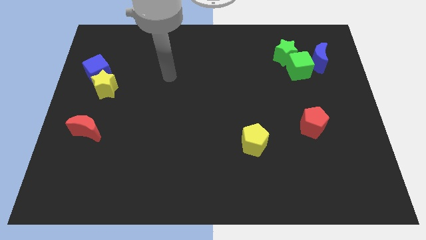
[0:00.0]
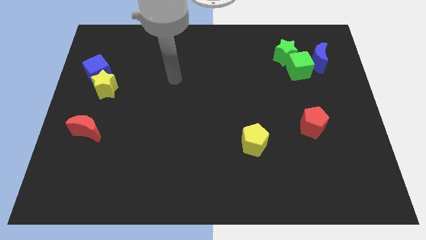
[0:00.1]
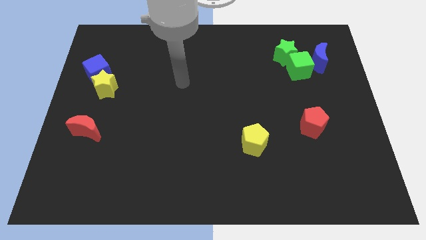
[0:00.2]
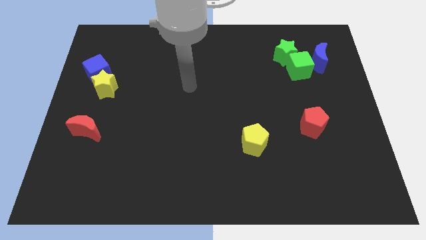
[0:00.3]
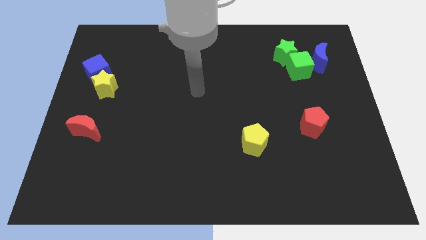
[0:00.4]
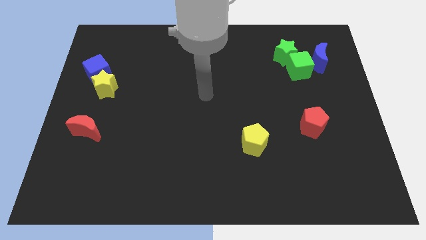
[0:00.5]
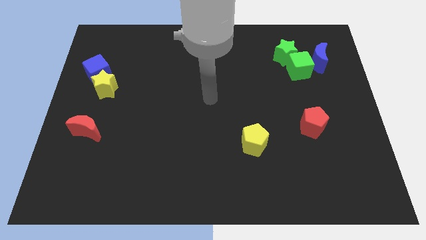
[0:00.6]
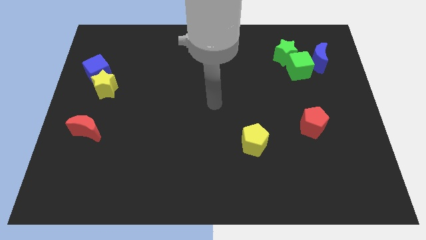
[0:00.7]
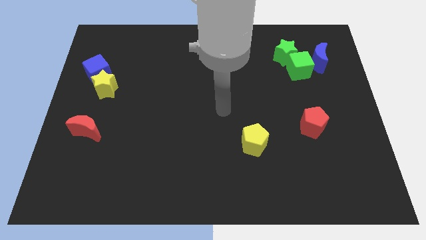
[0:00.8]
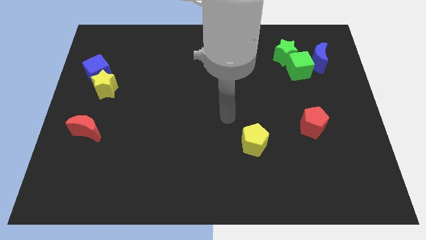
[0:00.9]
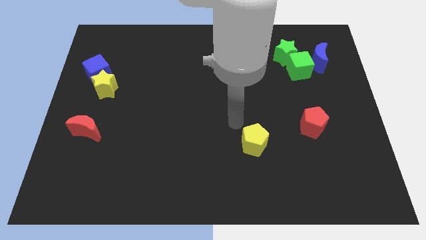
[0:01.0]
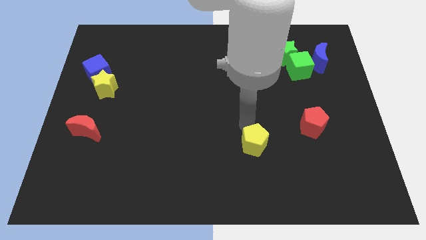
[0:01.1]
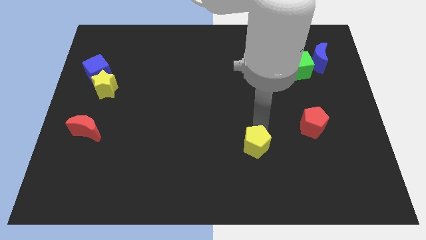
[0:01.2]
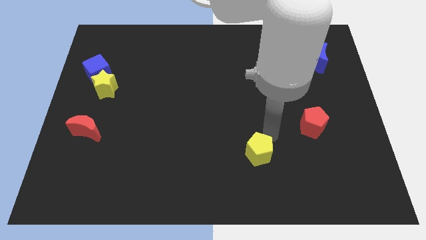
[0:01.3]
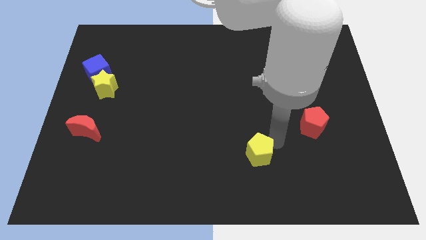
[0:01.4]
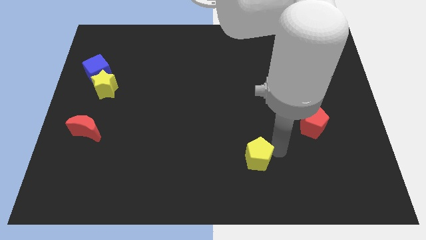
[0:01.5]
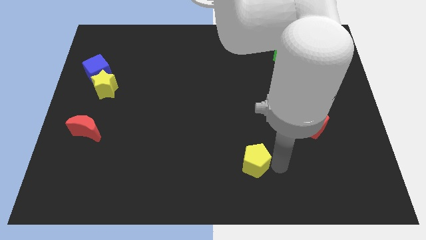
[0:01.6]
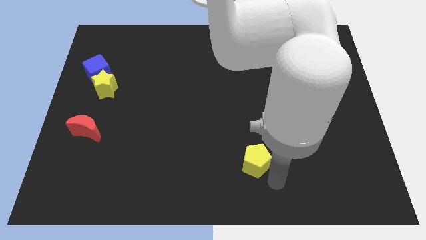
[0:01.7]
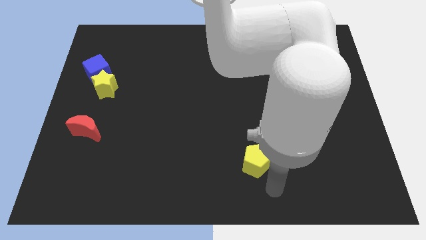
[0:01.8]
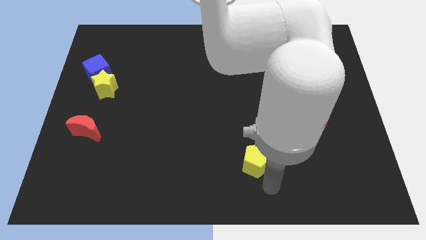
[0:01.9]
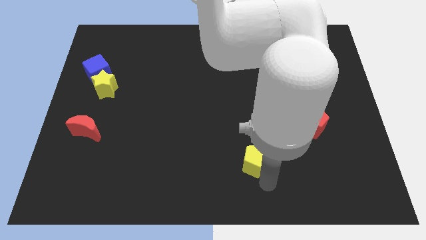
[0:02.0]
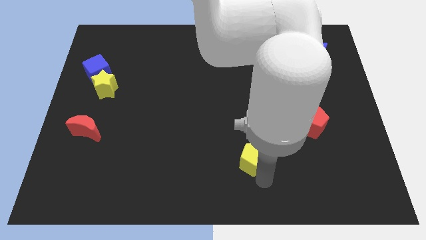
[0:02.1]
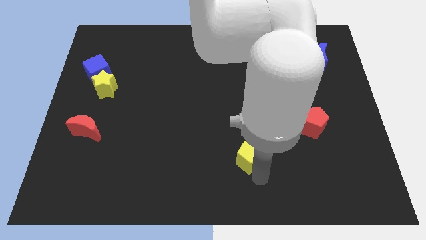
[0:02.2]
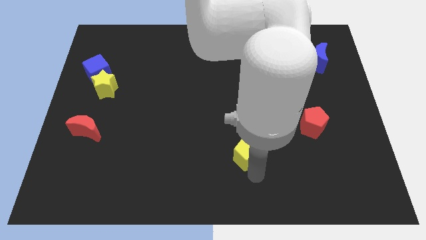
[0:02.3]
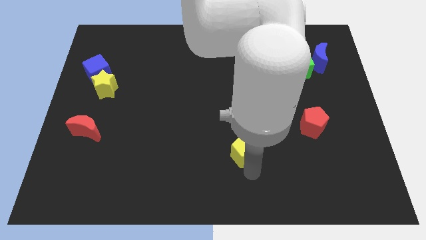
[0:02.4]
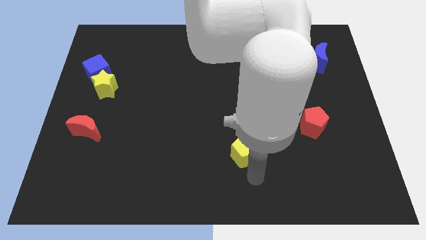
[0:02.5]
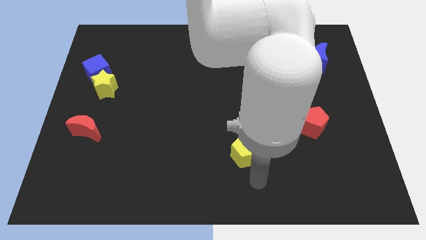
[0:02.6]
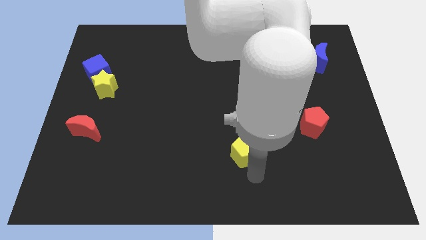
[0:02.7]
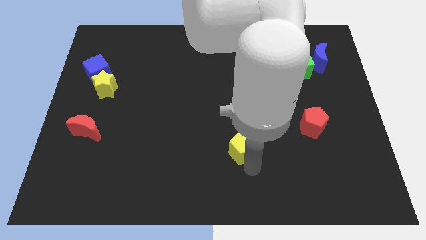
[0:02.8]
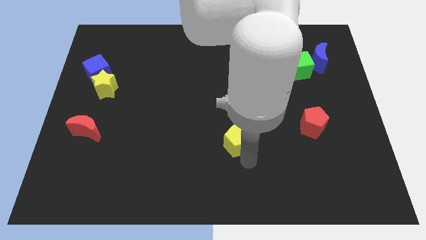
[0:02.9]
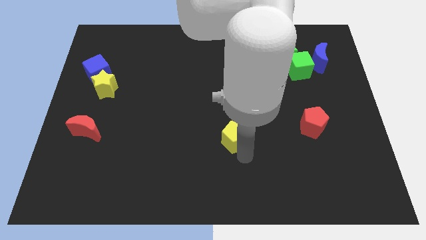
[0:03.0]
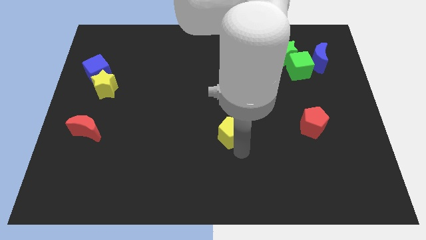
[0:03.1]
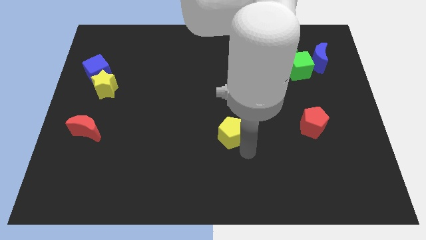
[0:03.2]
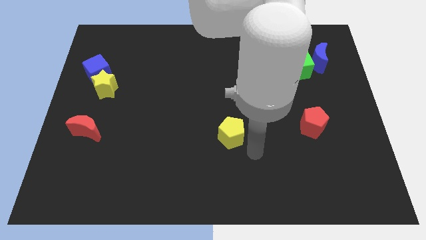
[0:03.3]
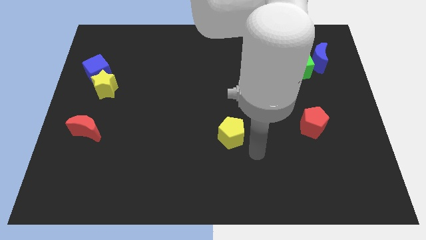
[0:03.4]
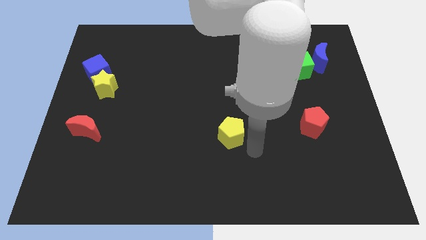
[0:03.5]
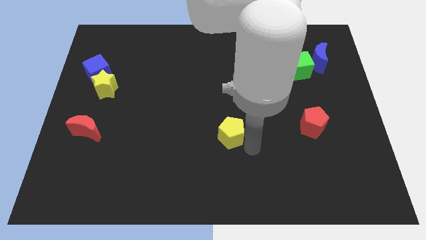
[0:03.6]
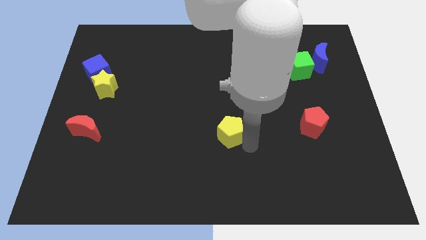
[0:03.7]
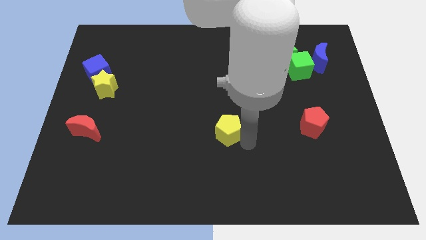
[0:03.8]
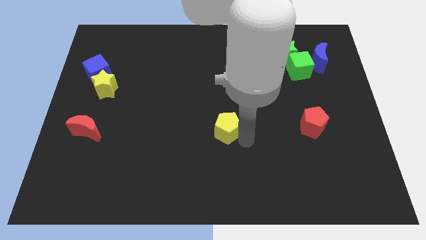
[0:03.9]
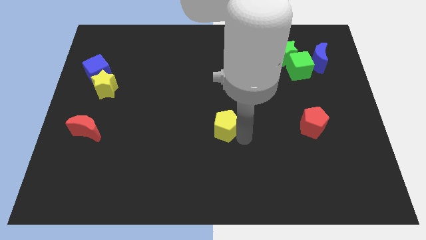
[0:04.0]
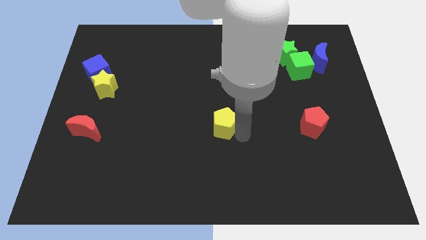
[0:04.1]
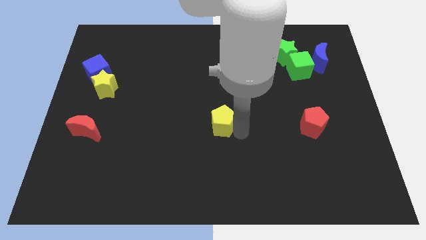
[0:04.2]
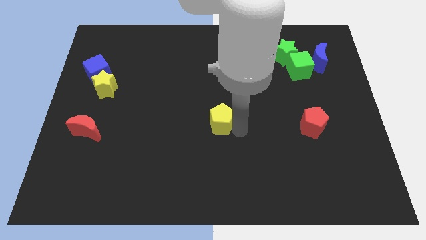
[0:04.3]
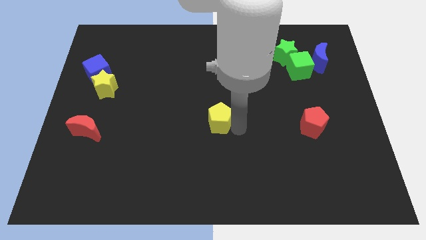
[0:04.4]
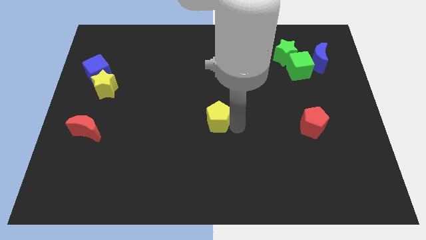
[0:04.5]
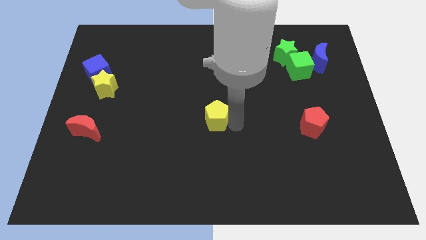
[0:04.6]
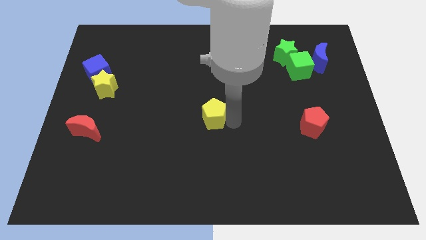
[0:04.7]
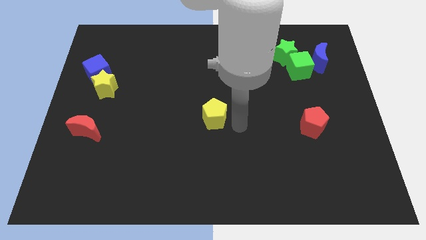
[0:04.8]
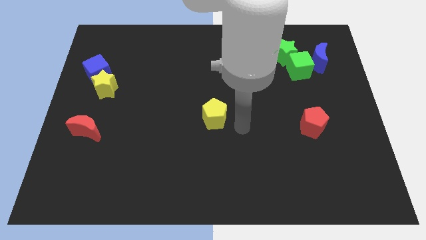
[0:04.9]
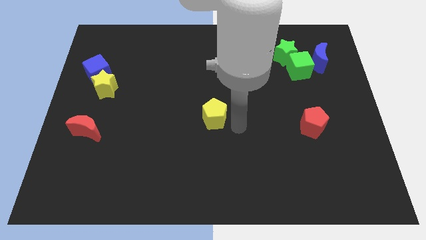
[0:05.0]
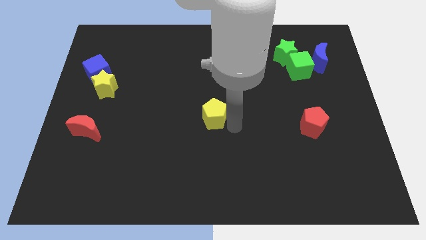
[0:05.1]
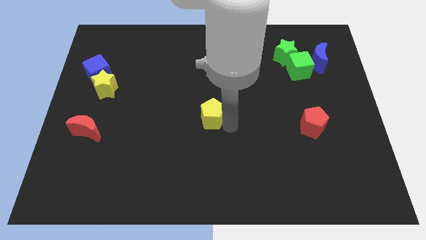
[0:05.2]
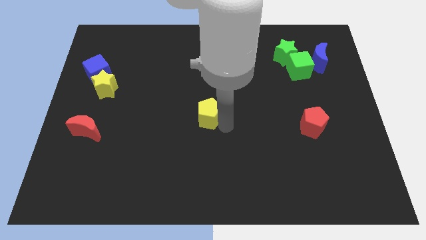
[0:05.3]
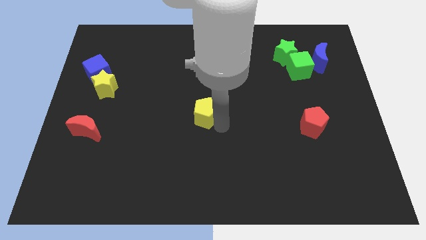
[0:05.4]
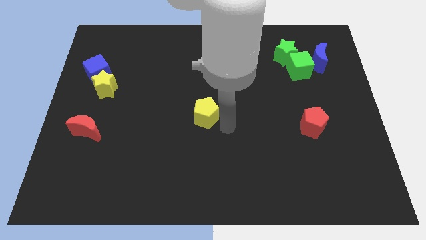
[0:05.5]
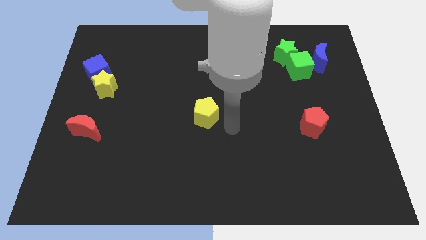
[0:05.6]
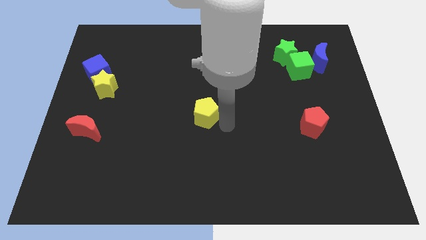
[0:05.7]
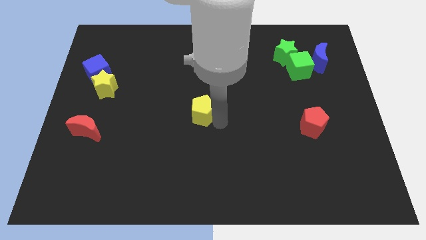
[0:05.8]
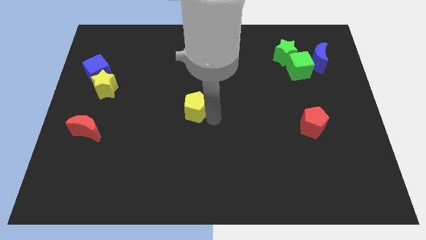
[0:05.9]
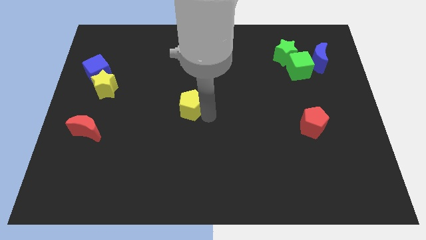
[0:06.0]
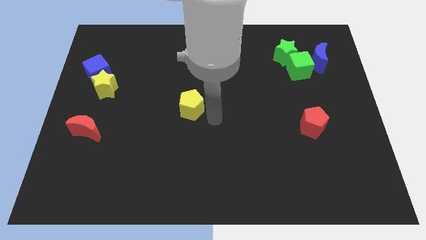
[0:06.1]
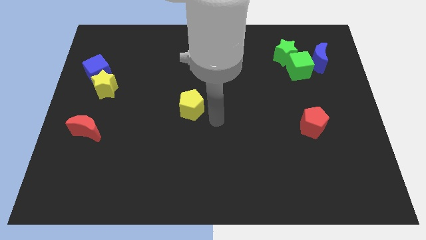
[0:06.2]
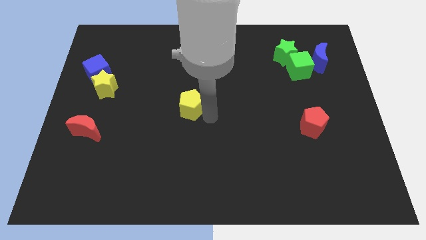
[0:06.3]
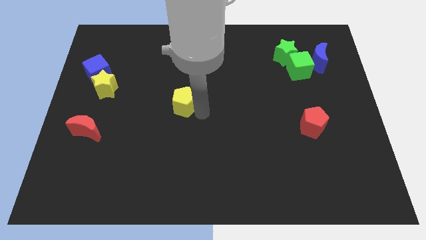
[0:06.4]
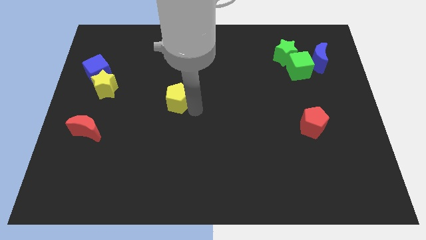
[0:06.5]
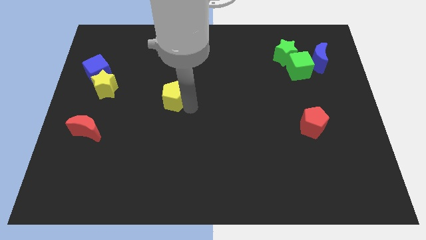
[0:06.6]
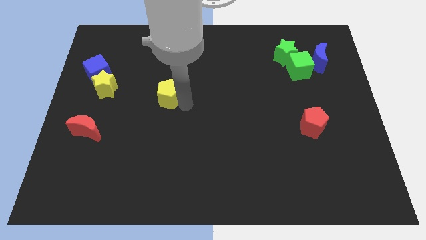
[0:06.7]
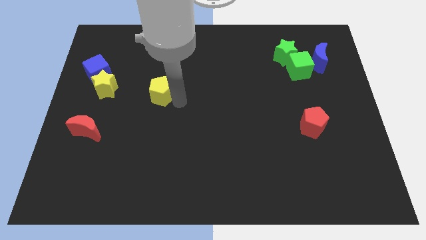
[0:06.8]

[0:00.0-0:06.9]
move the yellow pentagon just right of the yellow star

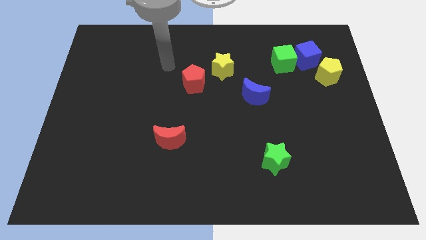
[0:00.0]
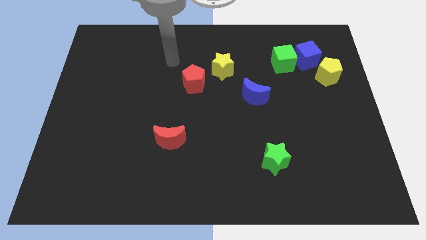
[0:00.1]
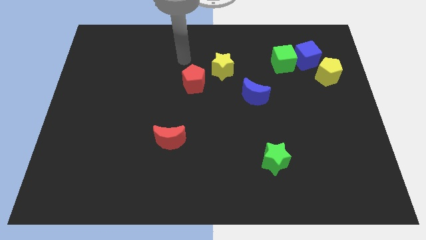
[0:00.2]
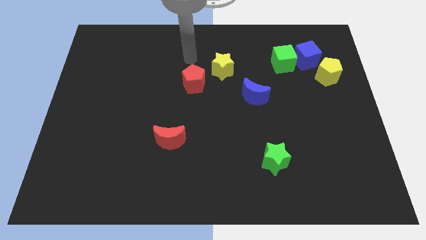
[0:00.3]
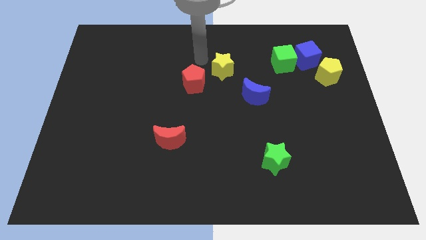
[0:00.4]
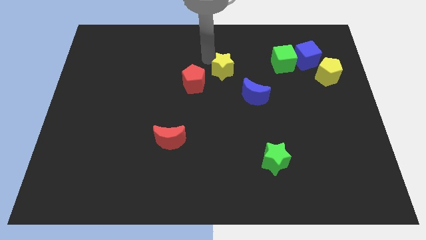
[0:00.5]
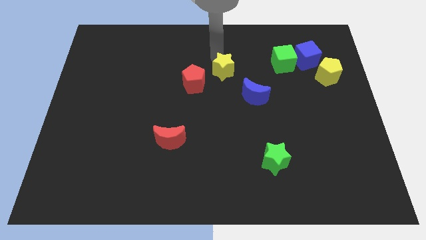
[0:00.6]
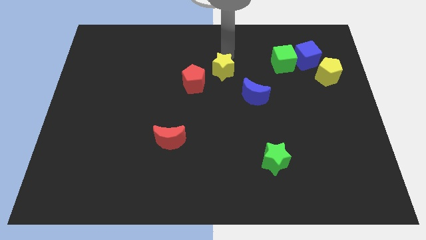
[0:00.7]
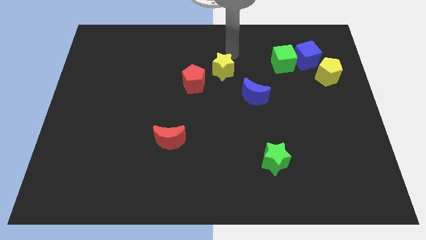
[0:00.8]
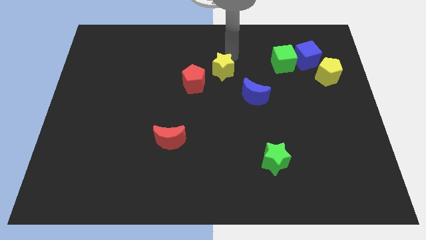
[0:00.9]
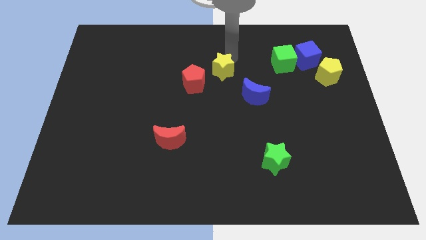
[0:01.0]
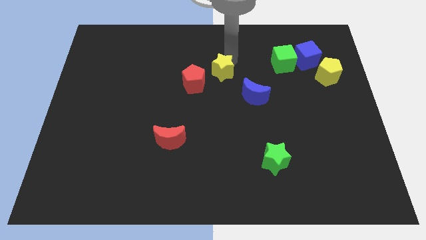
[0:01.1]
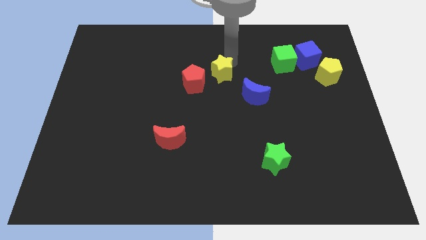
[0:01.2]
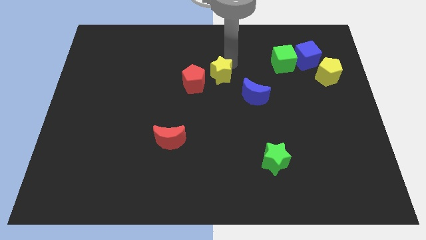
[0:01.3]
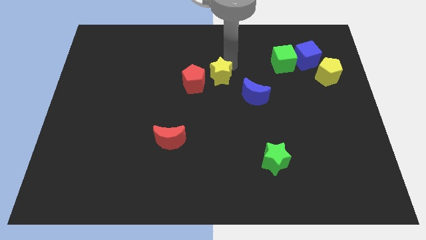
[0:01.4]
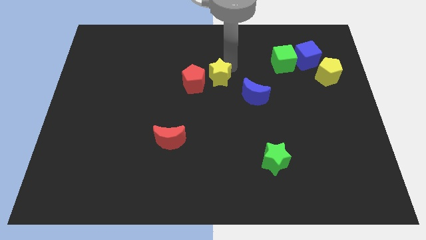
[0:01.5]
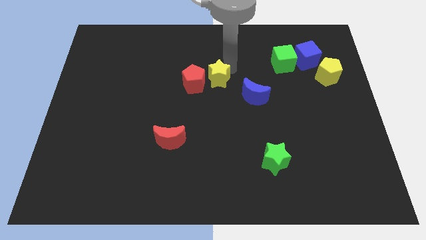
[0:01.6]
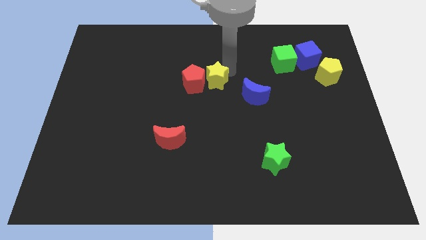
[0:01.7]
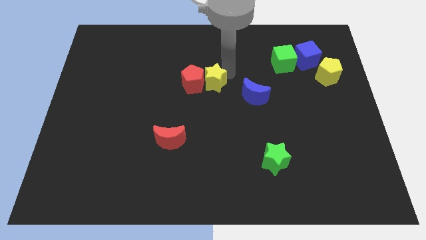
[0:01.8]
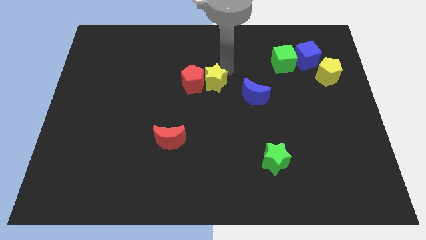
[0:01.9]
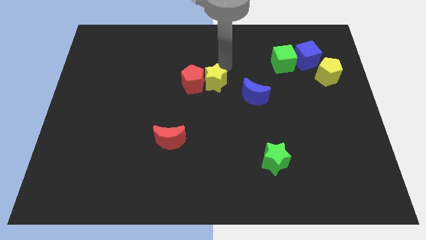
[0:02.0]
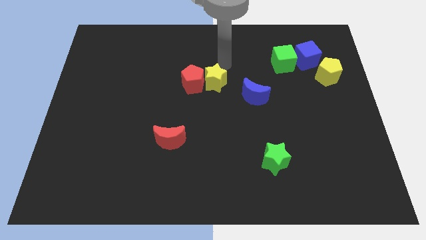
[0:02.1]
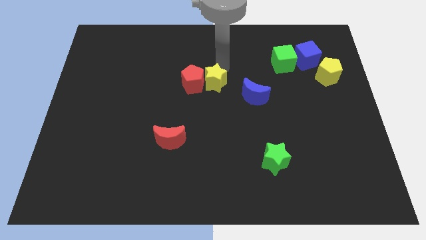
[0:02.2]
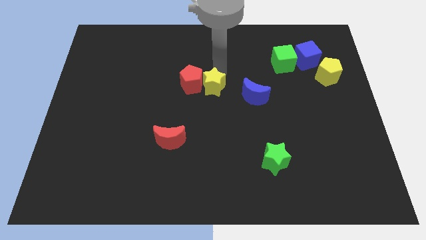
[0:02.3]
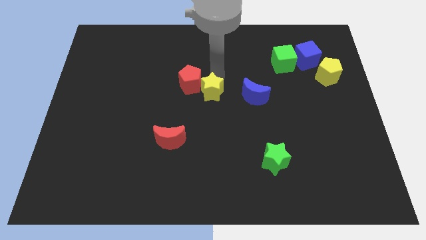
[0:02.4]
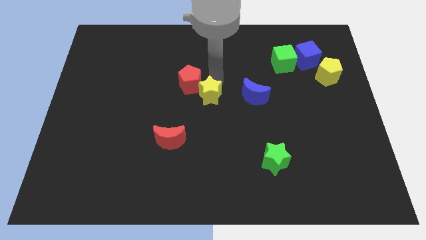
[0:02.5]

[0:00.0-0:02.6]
move the yellow star to the bottom of the red pentagon
